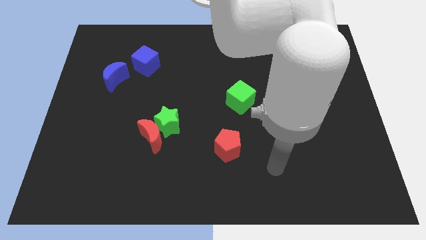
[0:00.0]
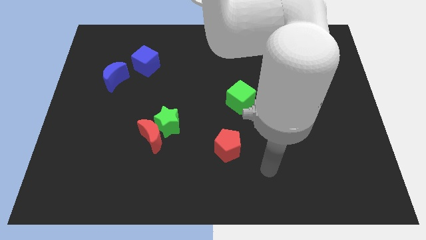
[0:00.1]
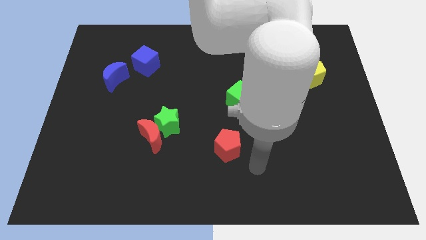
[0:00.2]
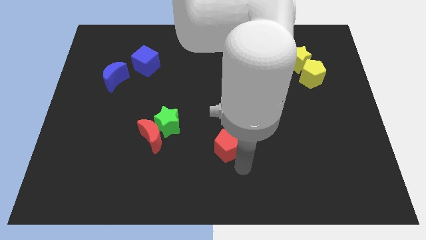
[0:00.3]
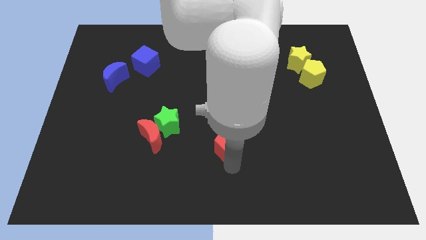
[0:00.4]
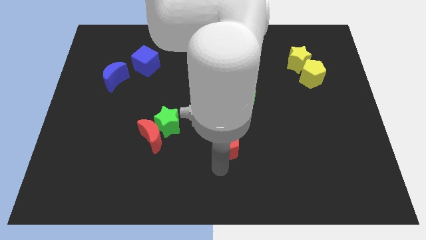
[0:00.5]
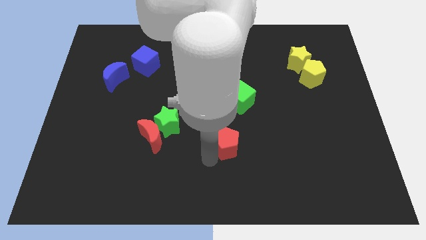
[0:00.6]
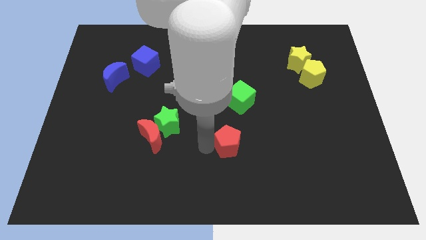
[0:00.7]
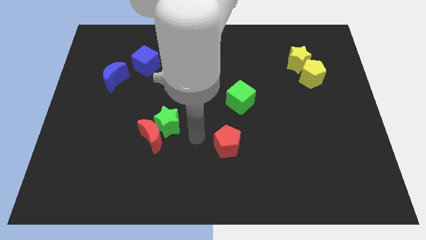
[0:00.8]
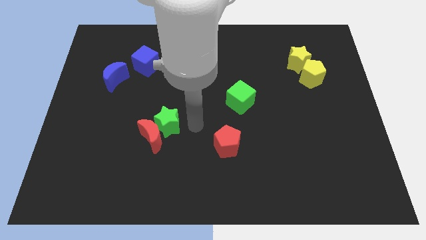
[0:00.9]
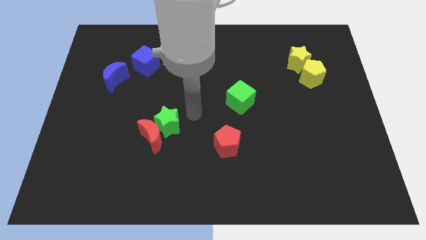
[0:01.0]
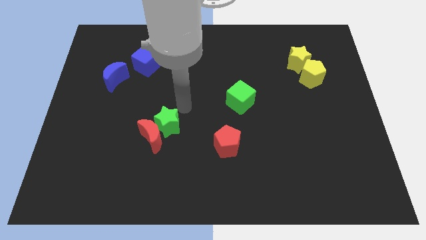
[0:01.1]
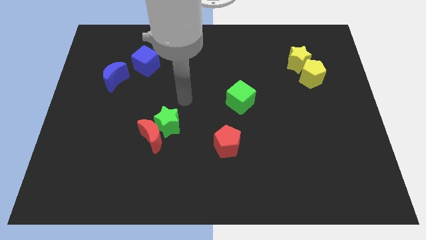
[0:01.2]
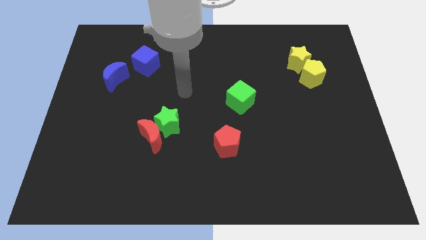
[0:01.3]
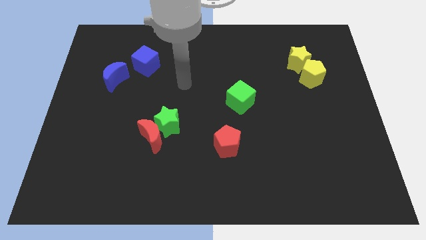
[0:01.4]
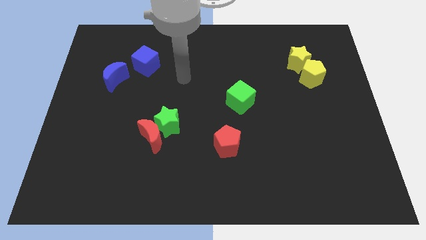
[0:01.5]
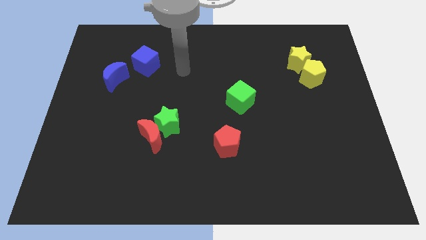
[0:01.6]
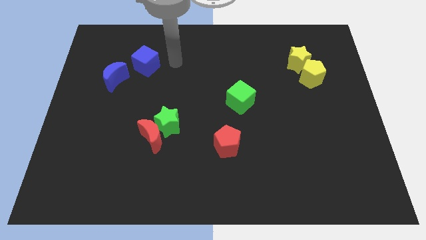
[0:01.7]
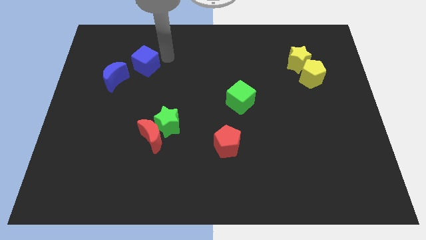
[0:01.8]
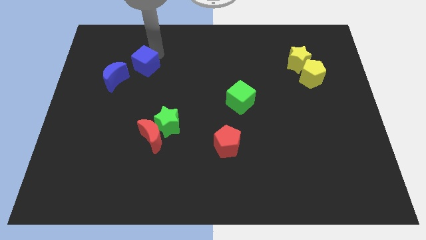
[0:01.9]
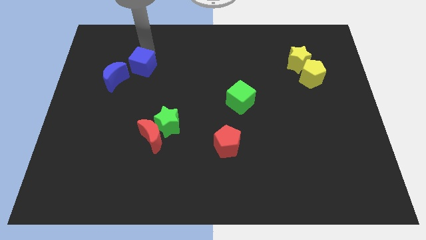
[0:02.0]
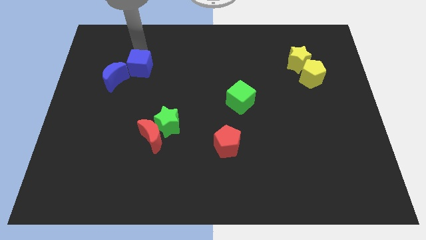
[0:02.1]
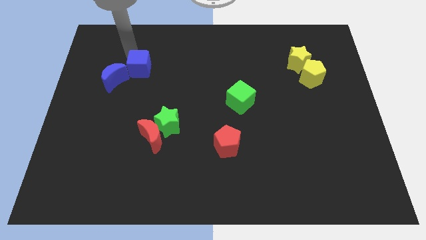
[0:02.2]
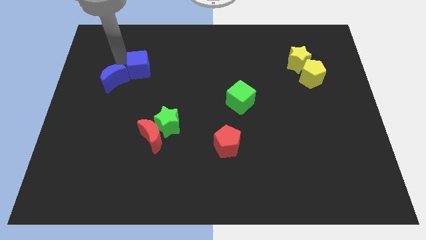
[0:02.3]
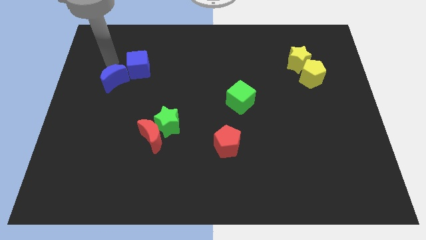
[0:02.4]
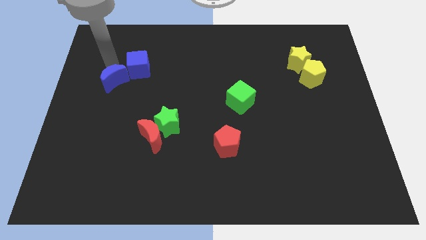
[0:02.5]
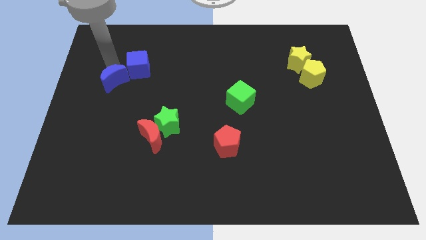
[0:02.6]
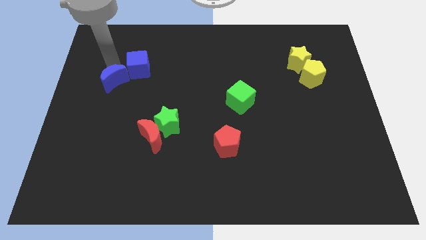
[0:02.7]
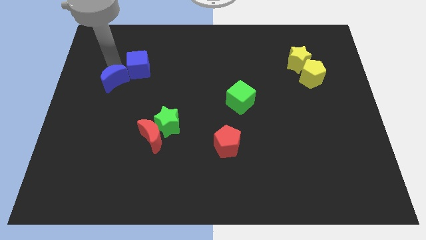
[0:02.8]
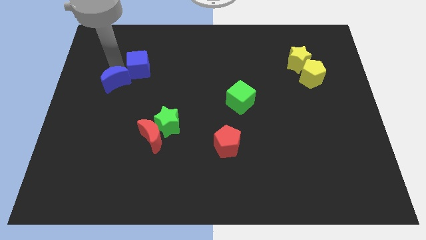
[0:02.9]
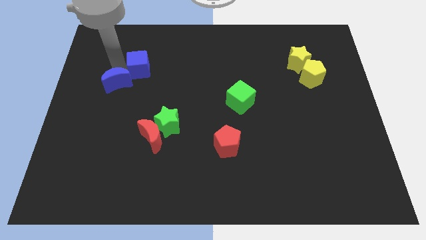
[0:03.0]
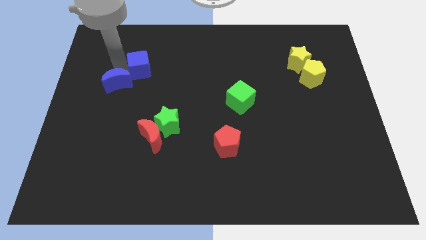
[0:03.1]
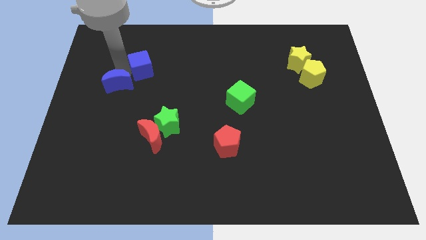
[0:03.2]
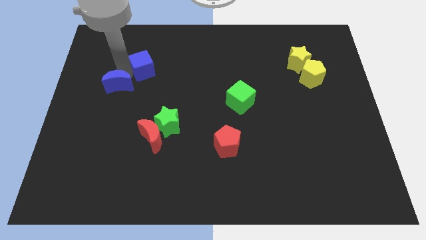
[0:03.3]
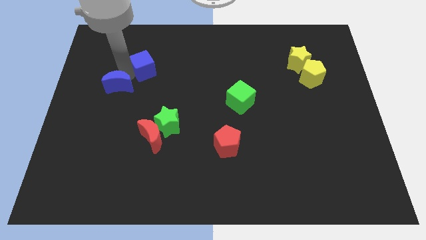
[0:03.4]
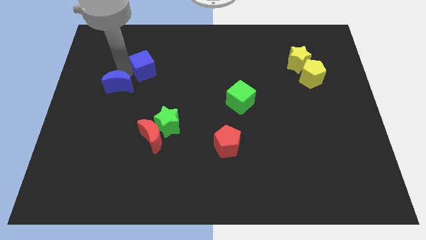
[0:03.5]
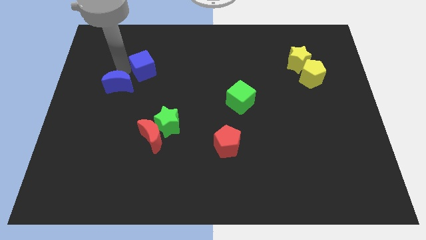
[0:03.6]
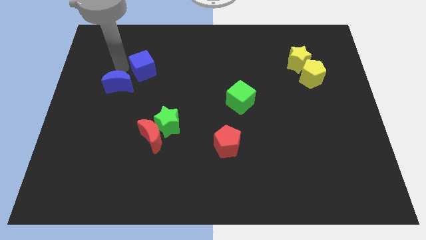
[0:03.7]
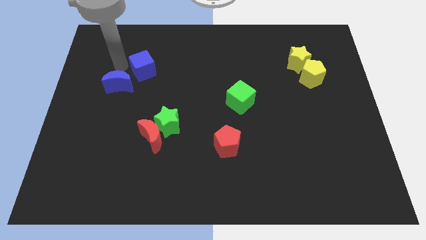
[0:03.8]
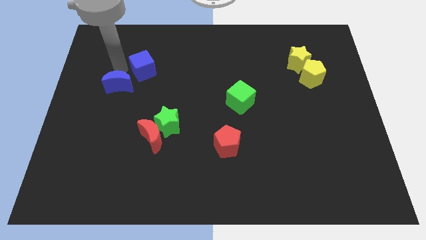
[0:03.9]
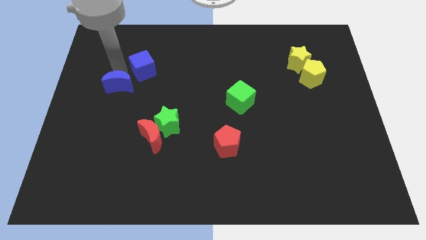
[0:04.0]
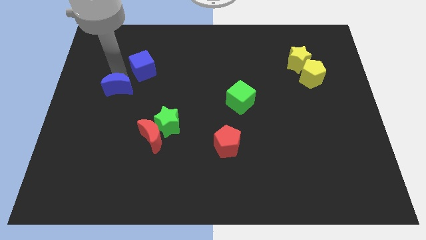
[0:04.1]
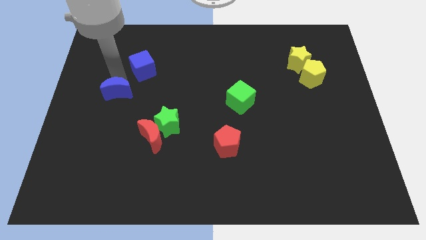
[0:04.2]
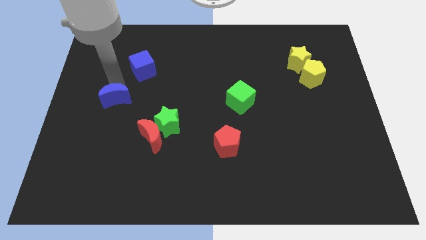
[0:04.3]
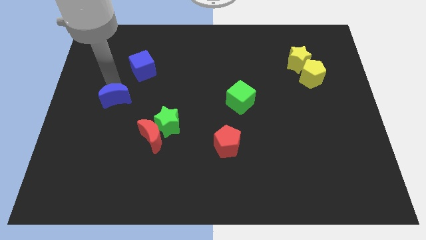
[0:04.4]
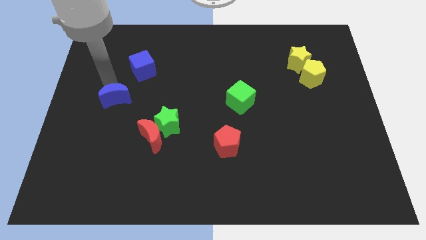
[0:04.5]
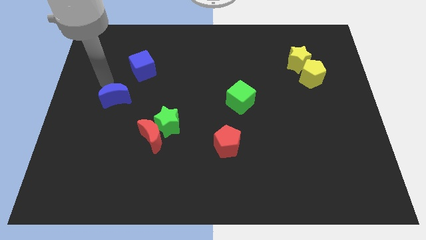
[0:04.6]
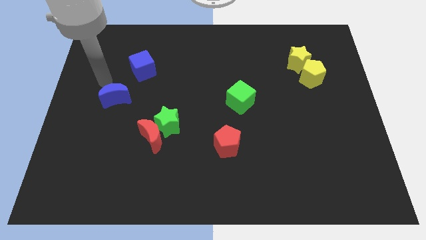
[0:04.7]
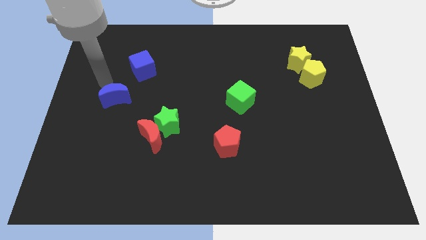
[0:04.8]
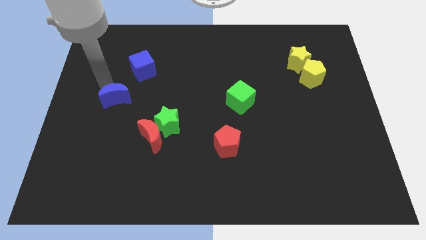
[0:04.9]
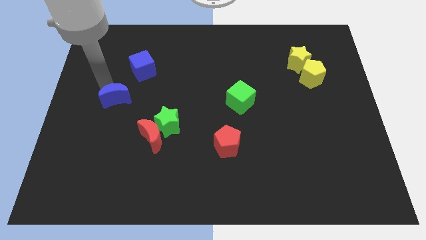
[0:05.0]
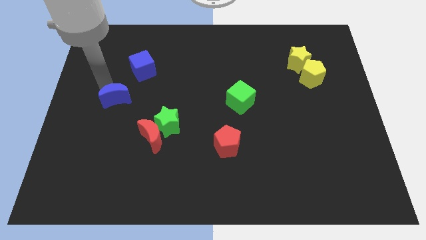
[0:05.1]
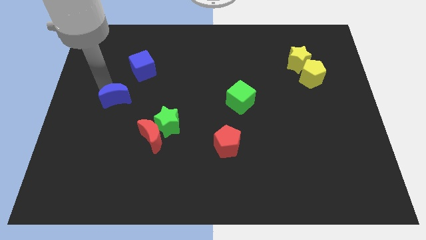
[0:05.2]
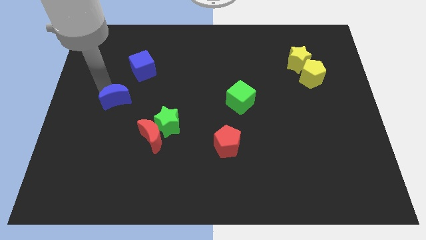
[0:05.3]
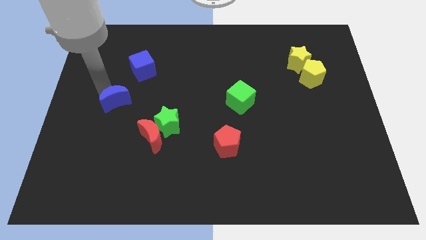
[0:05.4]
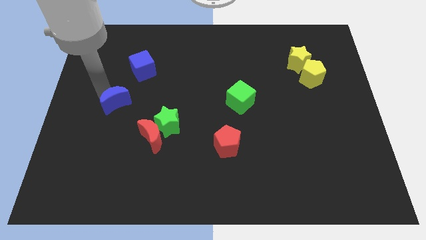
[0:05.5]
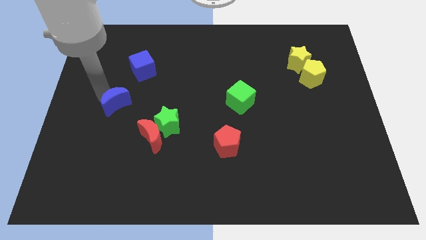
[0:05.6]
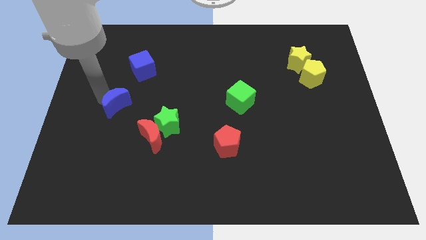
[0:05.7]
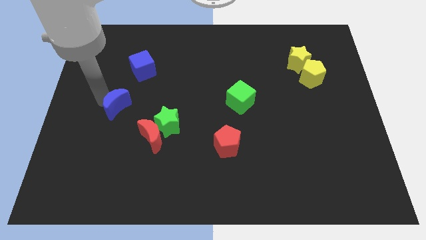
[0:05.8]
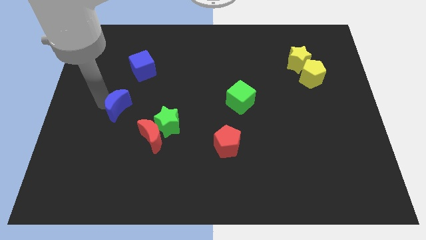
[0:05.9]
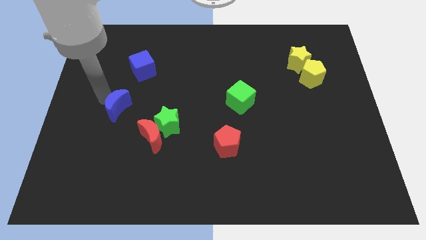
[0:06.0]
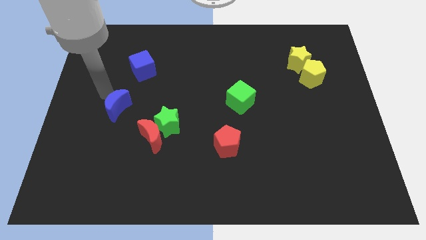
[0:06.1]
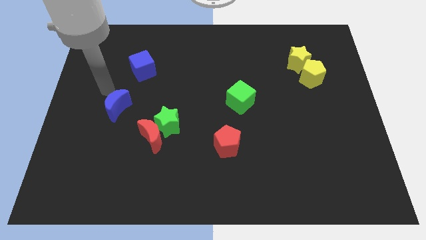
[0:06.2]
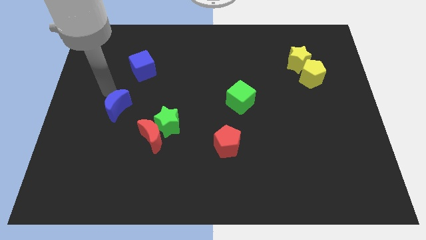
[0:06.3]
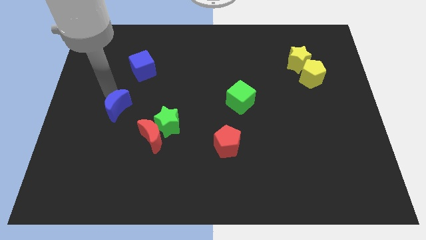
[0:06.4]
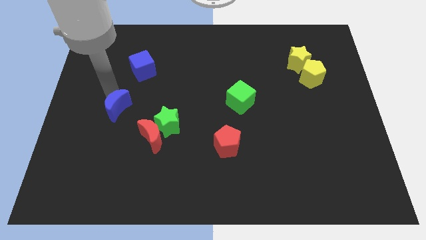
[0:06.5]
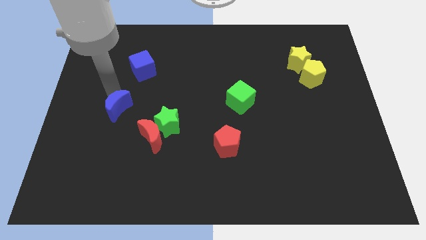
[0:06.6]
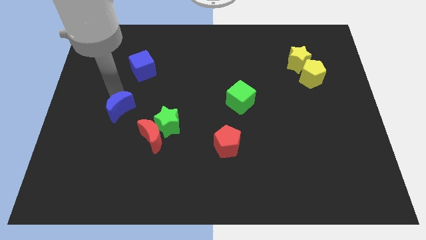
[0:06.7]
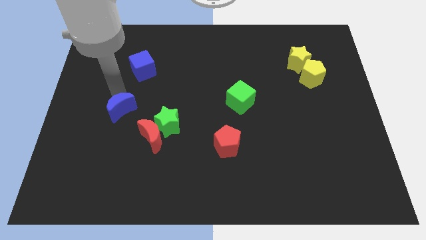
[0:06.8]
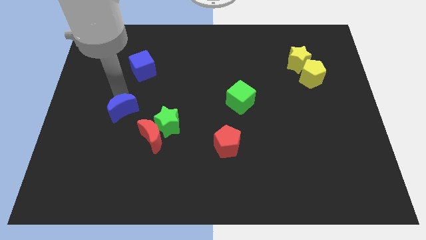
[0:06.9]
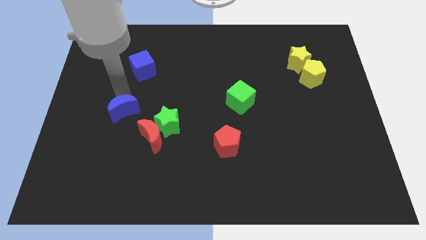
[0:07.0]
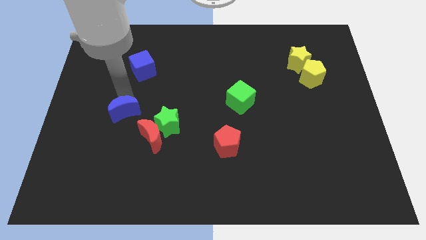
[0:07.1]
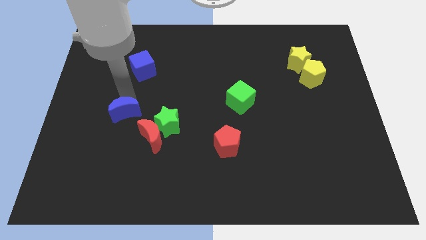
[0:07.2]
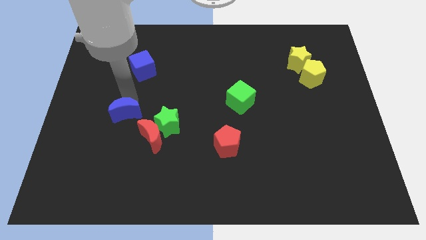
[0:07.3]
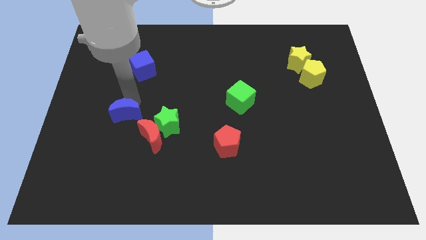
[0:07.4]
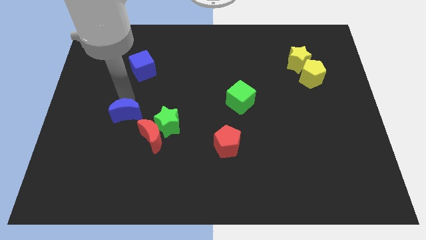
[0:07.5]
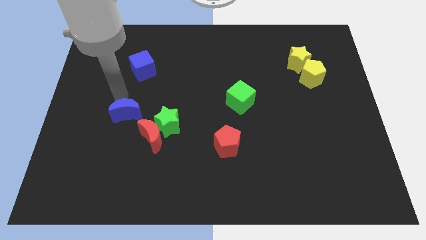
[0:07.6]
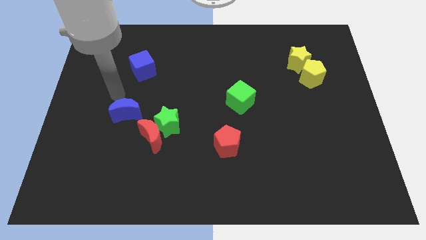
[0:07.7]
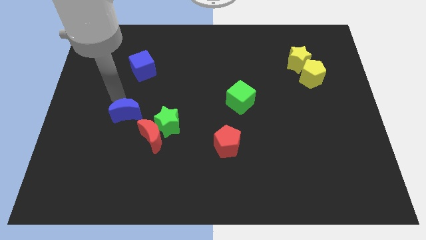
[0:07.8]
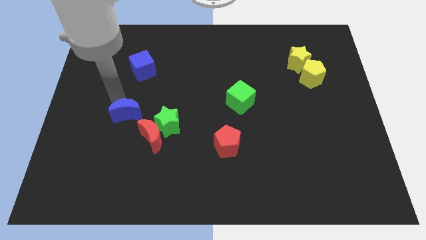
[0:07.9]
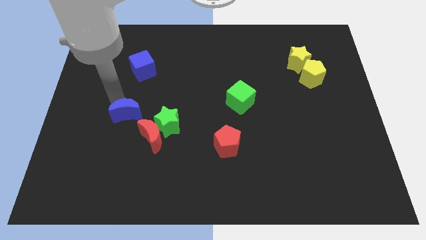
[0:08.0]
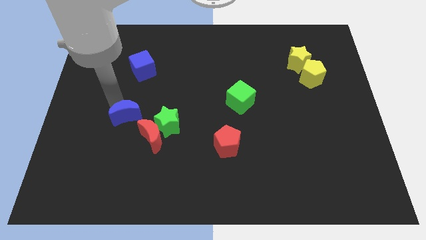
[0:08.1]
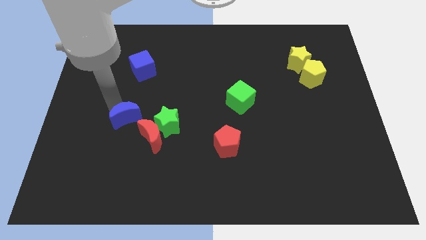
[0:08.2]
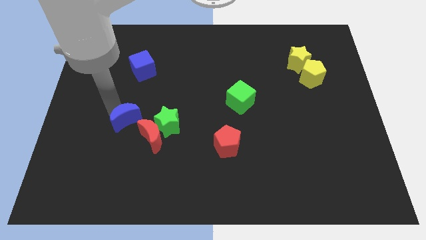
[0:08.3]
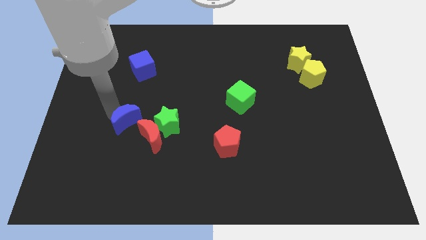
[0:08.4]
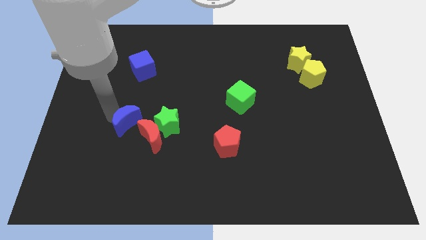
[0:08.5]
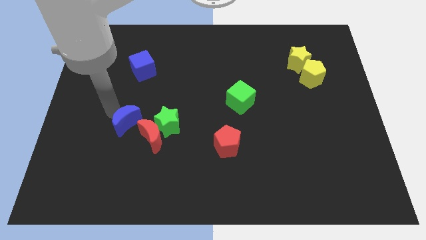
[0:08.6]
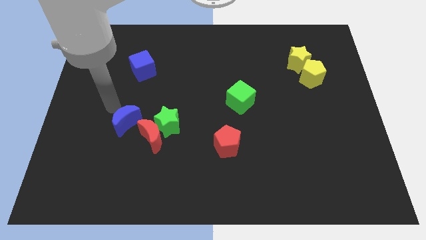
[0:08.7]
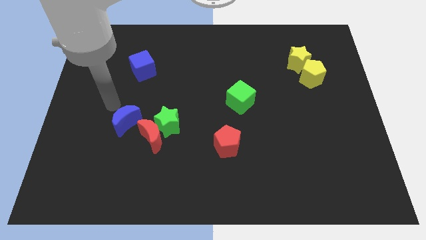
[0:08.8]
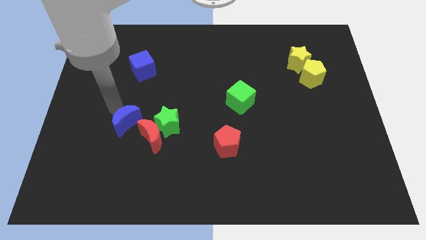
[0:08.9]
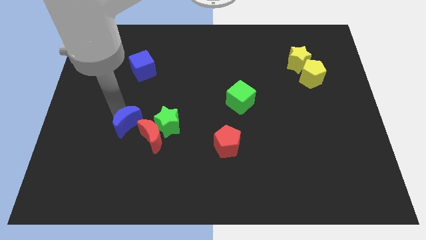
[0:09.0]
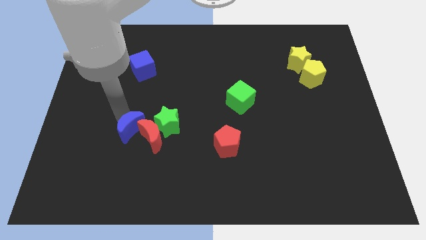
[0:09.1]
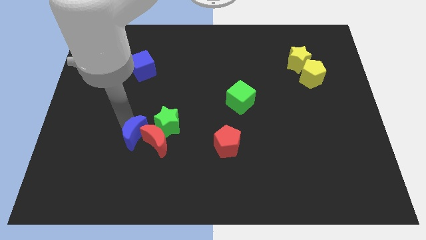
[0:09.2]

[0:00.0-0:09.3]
slide the blue moon diagonally down and to the left of the green star
